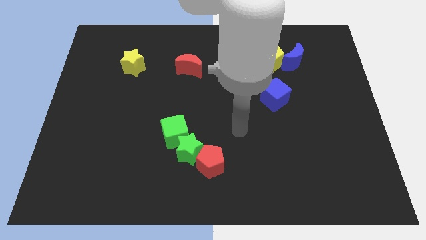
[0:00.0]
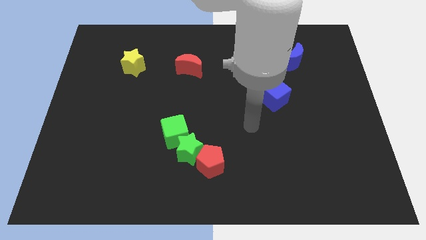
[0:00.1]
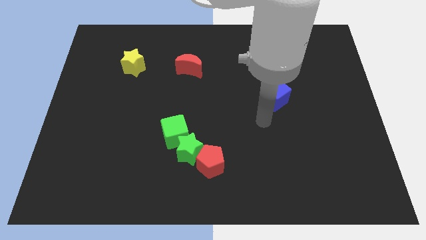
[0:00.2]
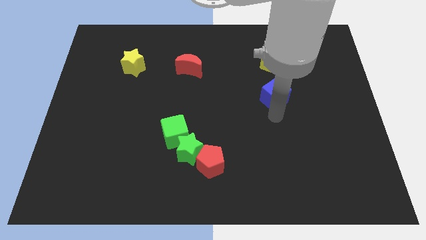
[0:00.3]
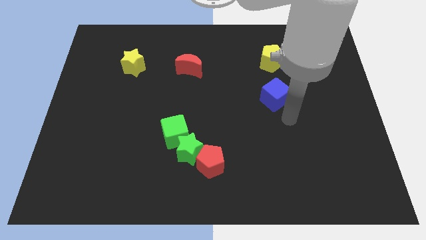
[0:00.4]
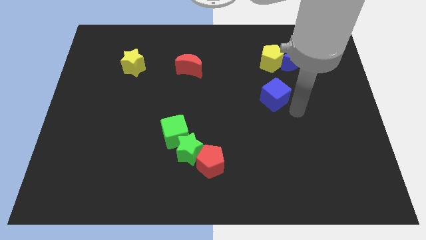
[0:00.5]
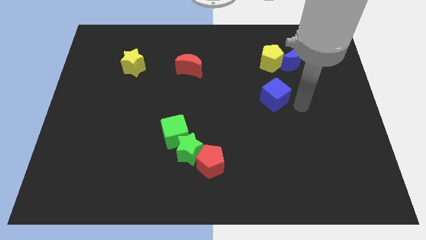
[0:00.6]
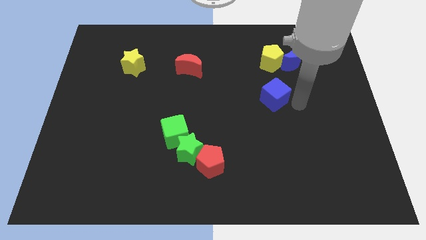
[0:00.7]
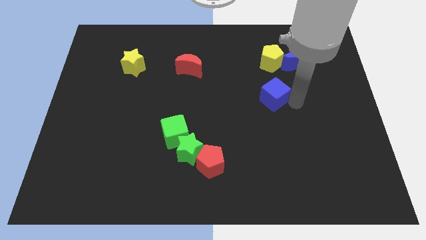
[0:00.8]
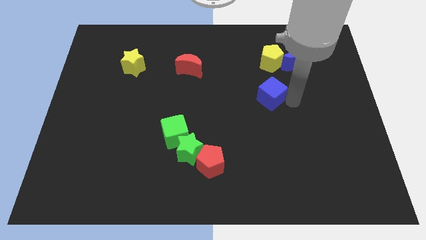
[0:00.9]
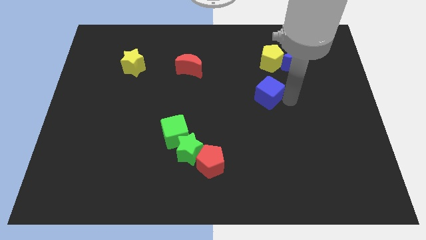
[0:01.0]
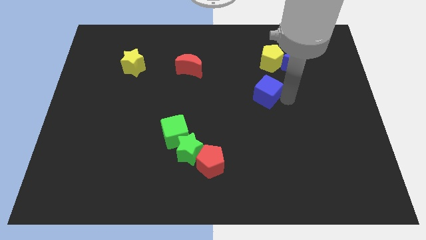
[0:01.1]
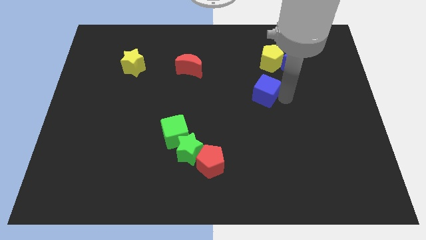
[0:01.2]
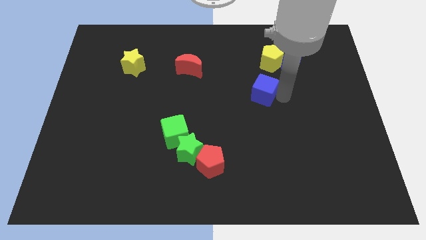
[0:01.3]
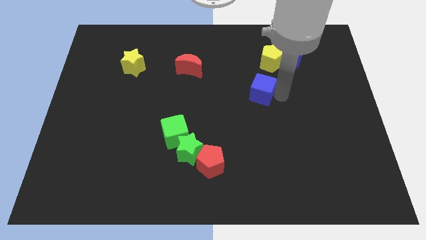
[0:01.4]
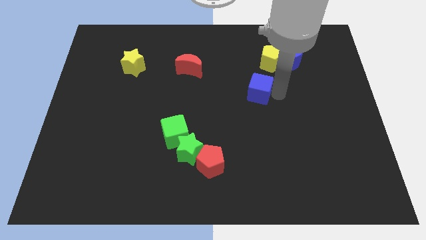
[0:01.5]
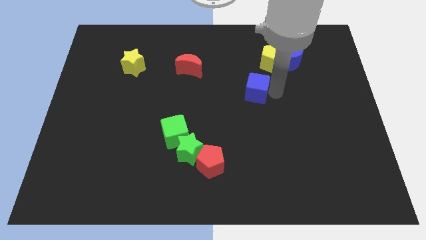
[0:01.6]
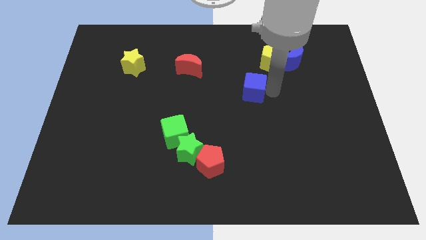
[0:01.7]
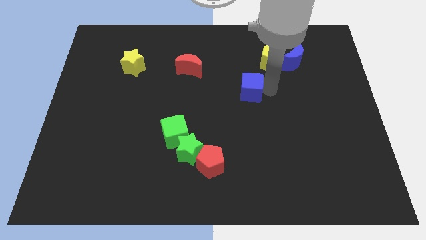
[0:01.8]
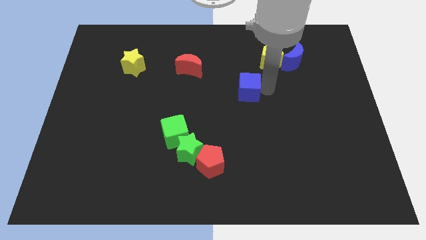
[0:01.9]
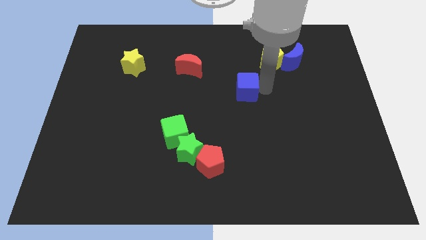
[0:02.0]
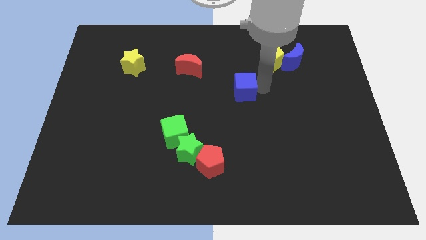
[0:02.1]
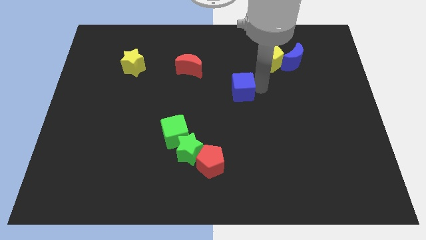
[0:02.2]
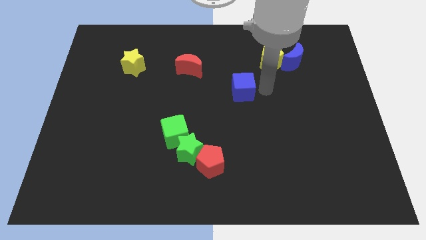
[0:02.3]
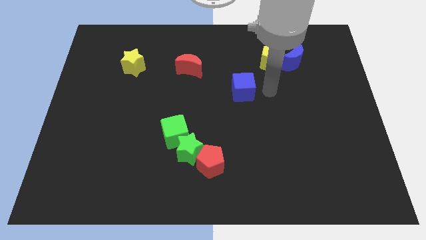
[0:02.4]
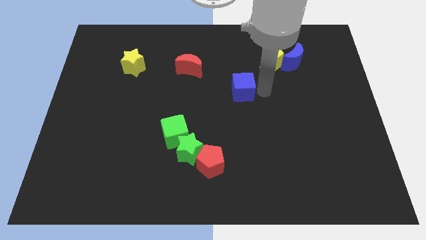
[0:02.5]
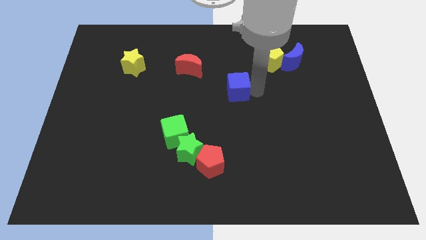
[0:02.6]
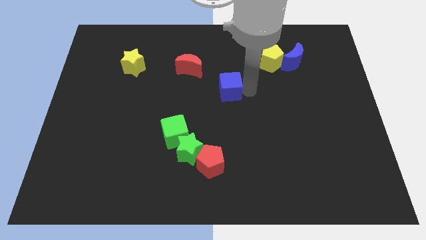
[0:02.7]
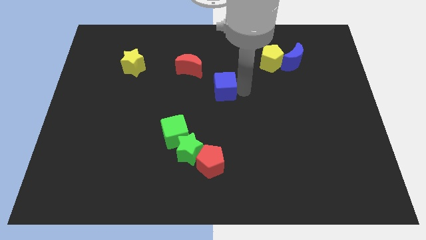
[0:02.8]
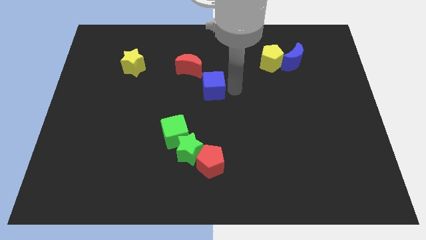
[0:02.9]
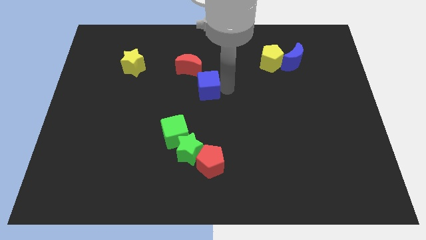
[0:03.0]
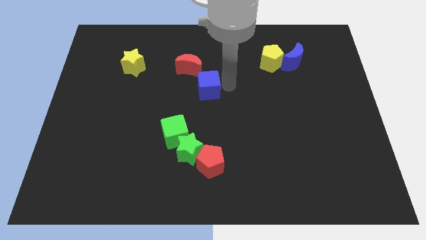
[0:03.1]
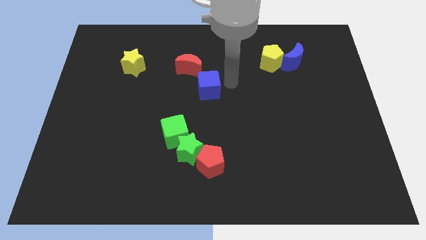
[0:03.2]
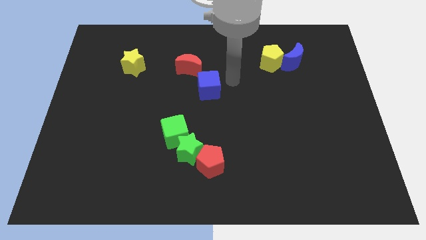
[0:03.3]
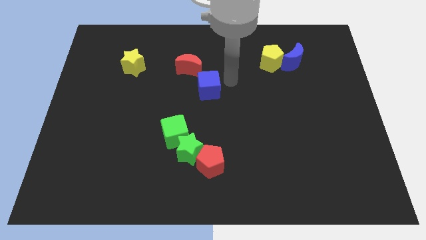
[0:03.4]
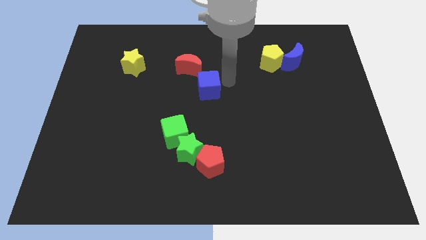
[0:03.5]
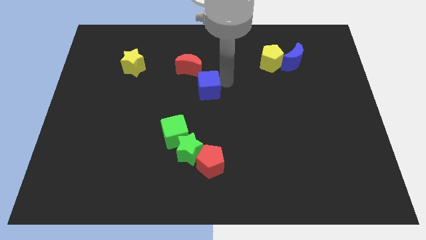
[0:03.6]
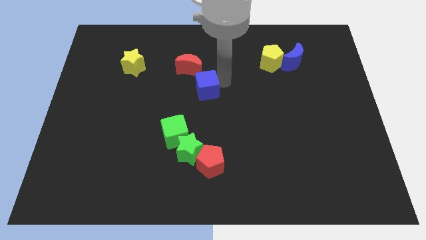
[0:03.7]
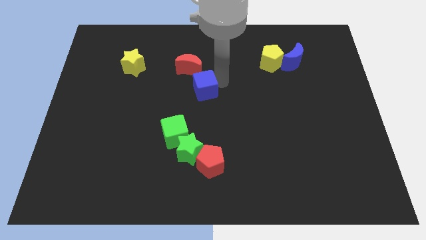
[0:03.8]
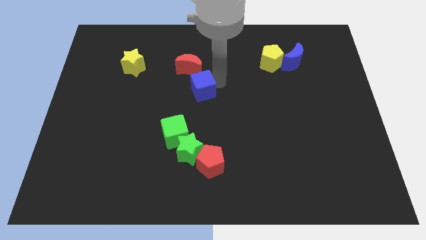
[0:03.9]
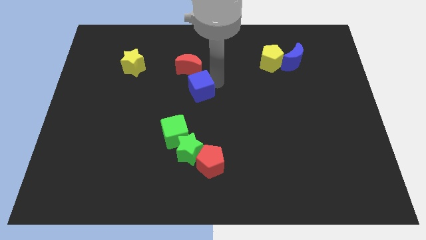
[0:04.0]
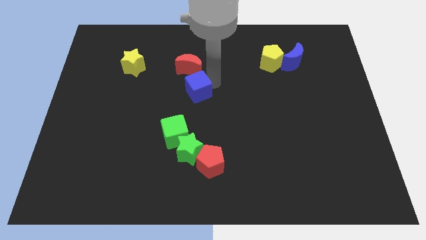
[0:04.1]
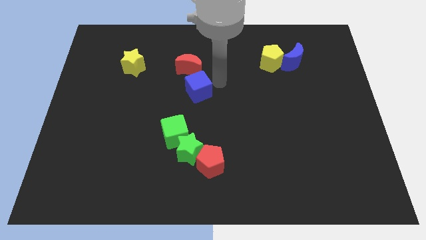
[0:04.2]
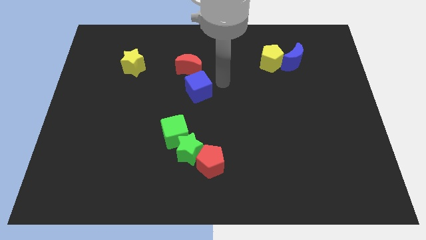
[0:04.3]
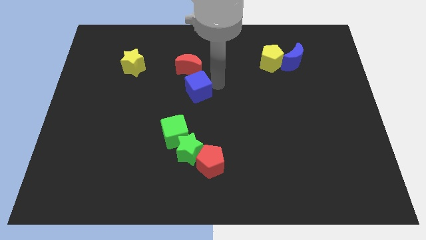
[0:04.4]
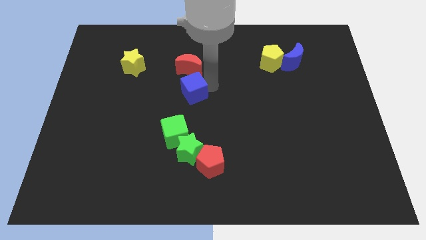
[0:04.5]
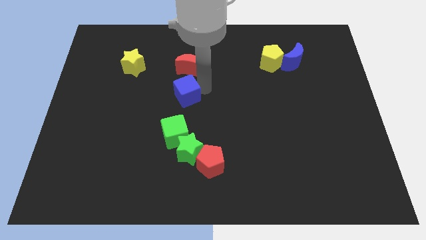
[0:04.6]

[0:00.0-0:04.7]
push the blue cube left

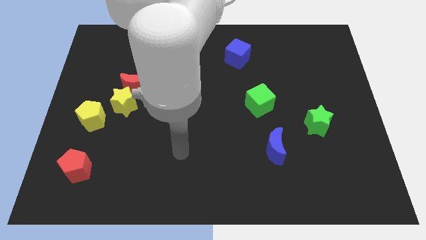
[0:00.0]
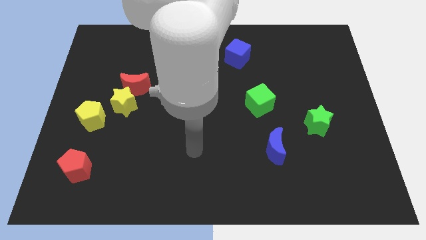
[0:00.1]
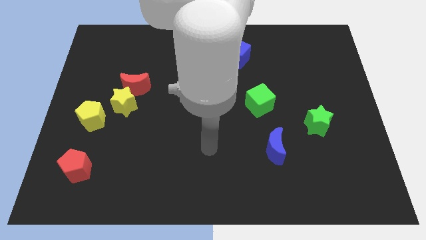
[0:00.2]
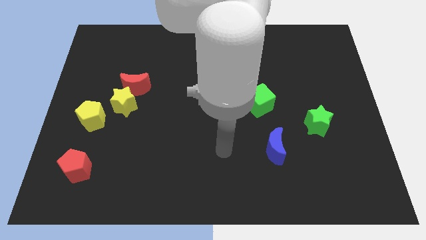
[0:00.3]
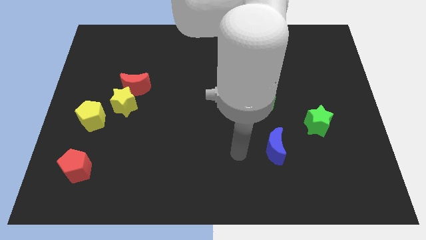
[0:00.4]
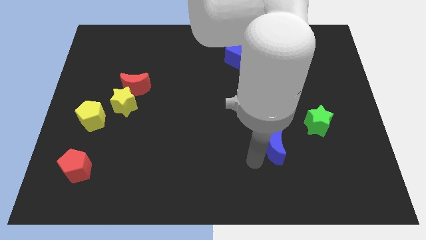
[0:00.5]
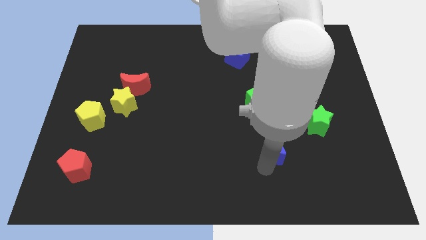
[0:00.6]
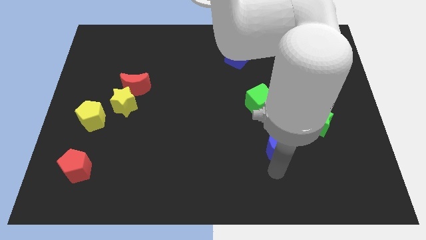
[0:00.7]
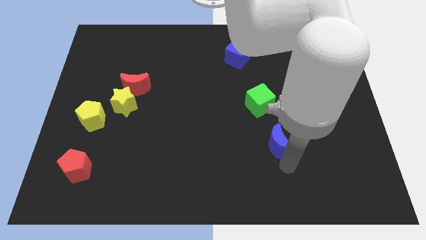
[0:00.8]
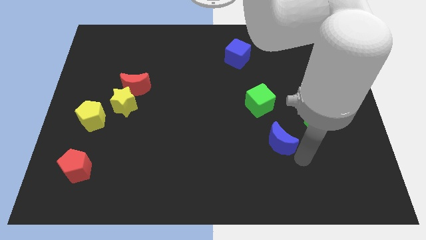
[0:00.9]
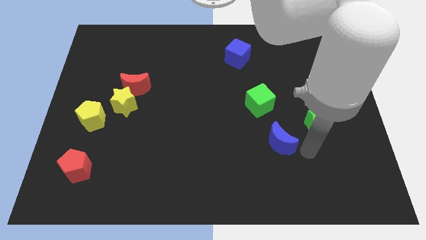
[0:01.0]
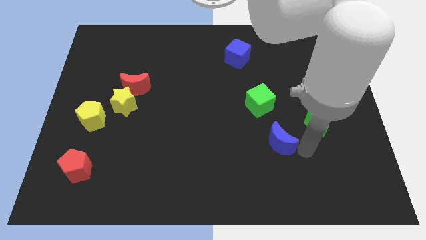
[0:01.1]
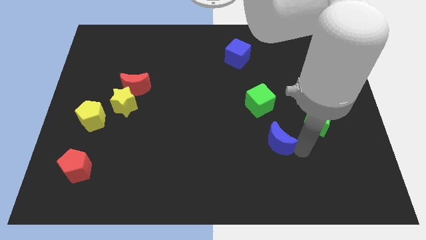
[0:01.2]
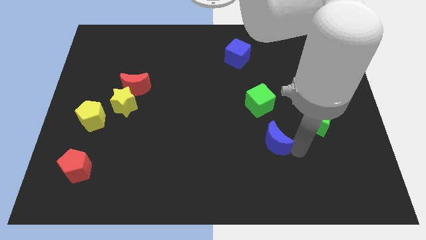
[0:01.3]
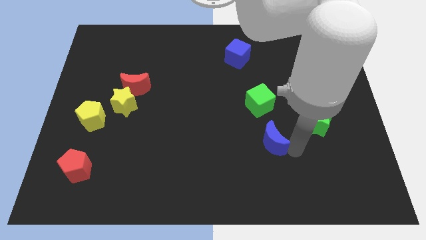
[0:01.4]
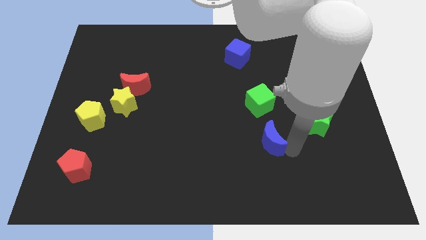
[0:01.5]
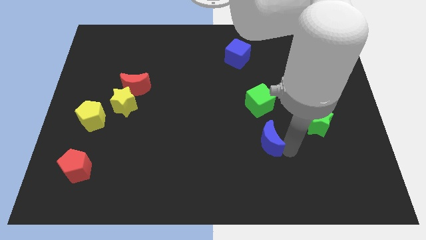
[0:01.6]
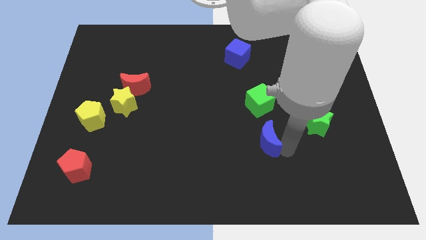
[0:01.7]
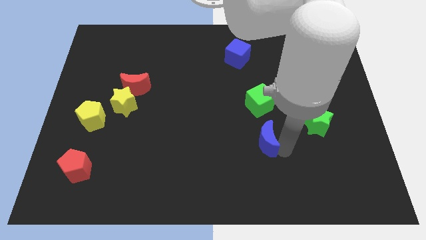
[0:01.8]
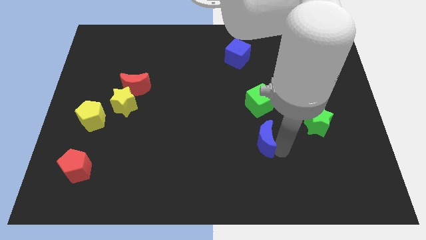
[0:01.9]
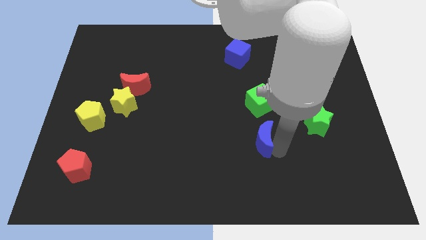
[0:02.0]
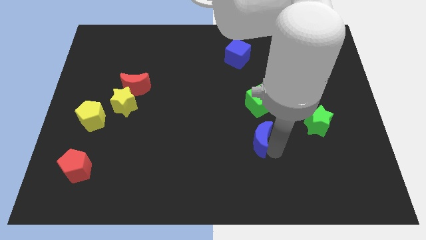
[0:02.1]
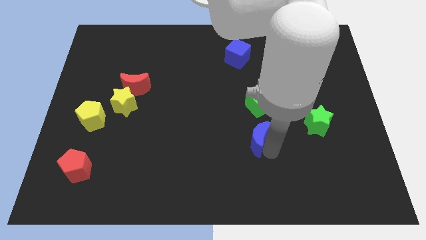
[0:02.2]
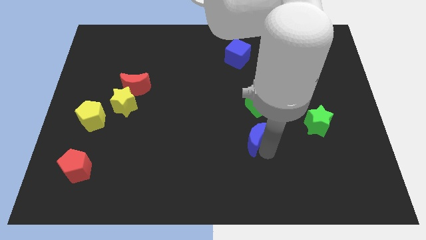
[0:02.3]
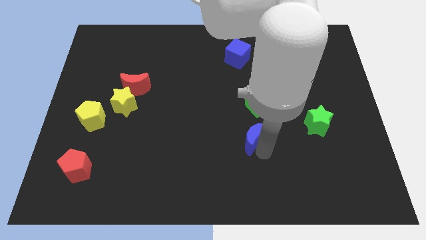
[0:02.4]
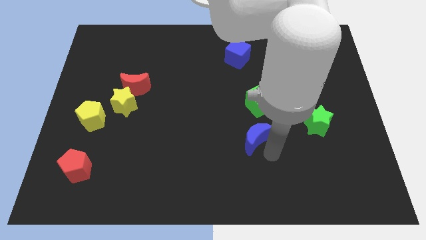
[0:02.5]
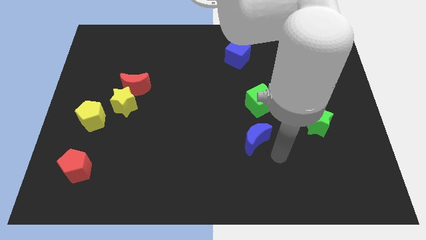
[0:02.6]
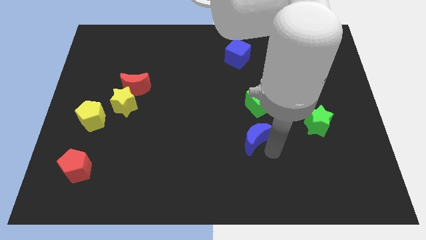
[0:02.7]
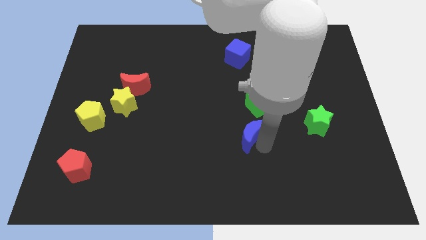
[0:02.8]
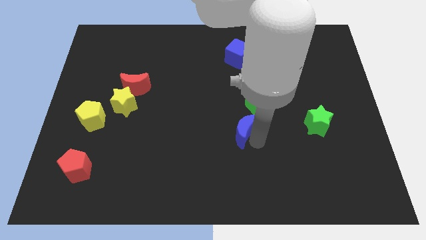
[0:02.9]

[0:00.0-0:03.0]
slide the blue moon diagonally upwards and to the left slightly

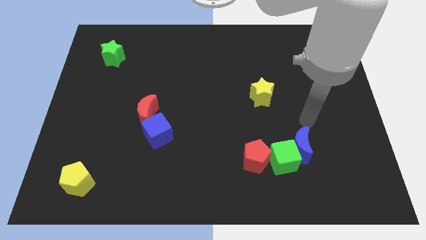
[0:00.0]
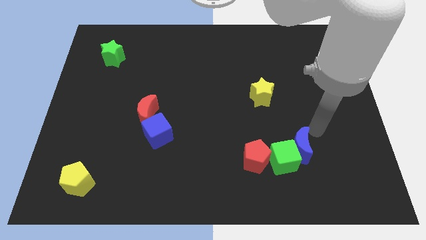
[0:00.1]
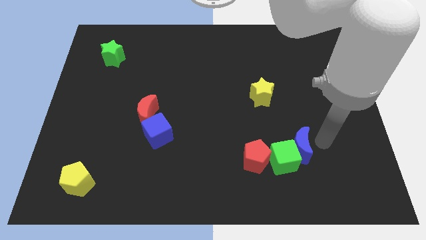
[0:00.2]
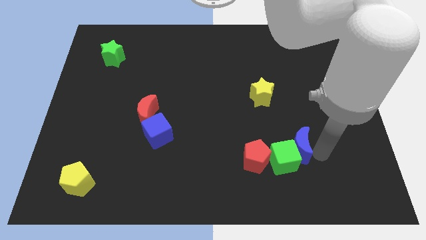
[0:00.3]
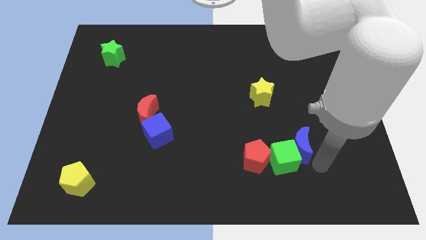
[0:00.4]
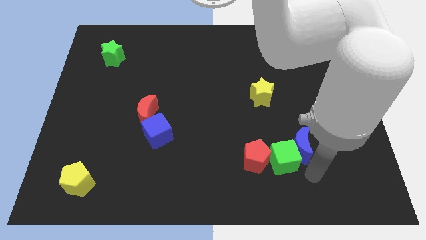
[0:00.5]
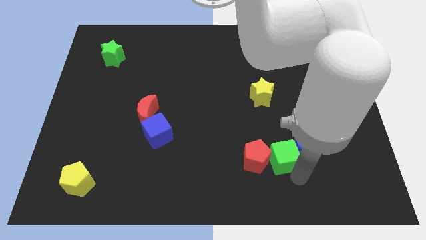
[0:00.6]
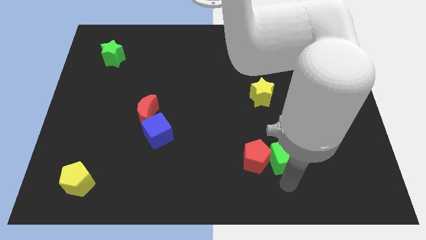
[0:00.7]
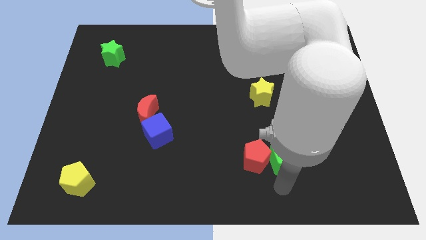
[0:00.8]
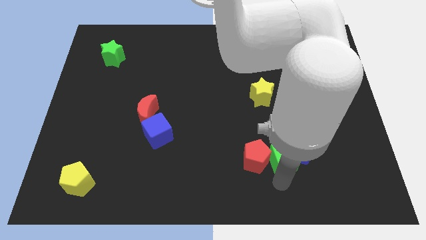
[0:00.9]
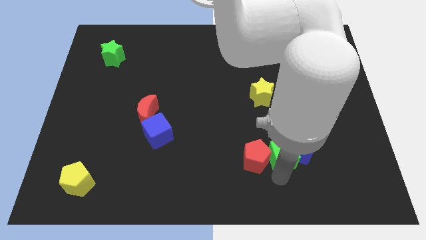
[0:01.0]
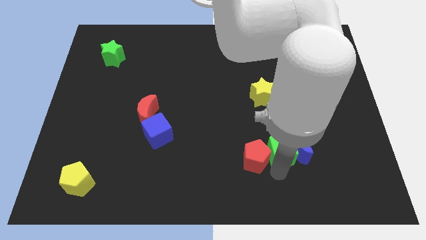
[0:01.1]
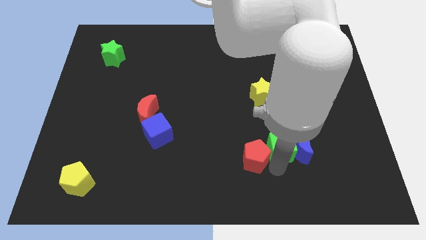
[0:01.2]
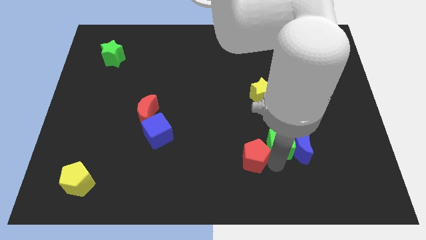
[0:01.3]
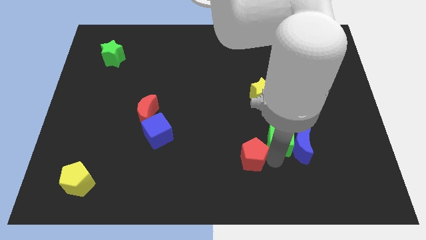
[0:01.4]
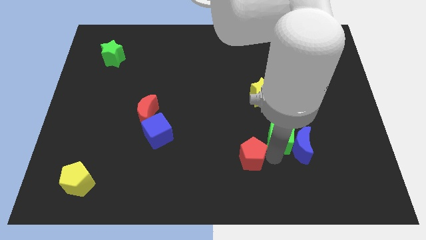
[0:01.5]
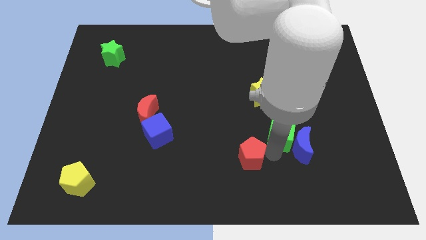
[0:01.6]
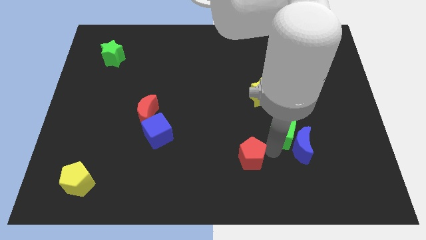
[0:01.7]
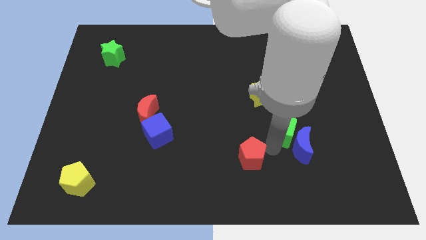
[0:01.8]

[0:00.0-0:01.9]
slide the green cube a little bit upwards
